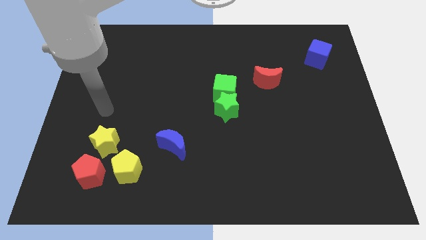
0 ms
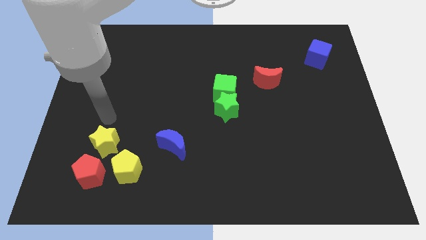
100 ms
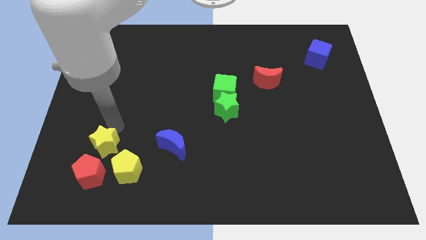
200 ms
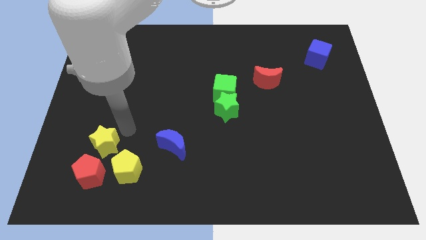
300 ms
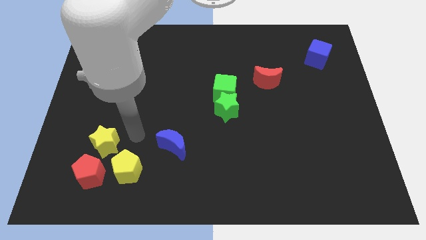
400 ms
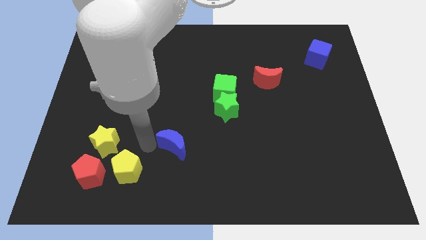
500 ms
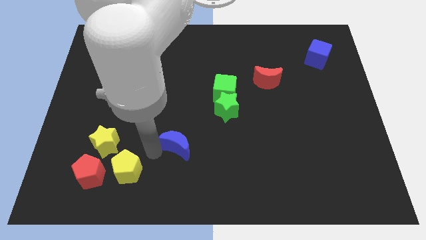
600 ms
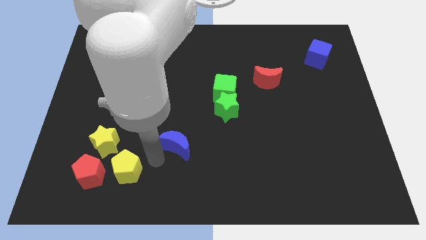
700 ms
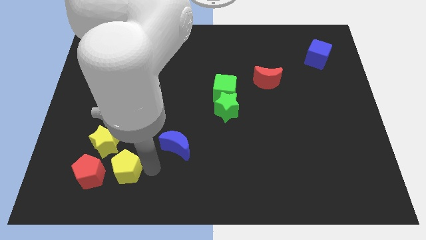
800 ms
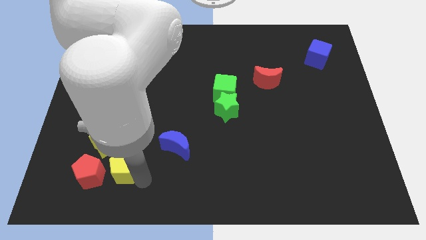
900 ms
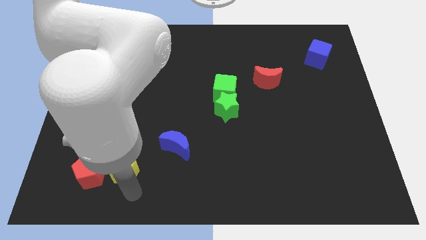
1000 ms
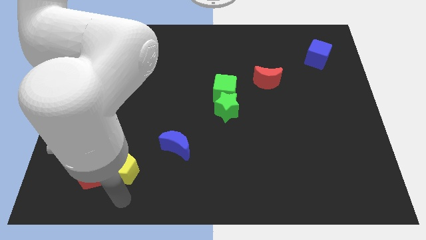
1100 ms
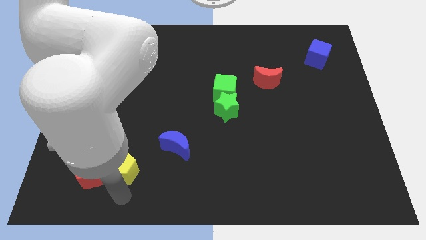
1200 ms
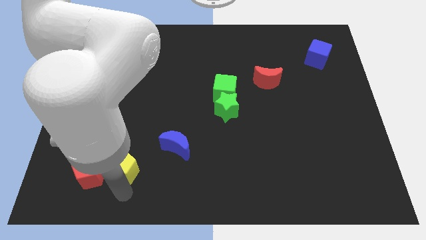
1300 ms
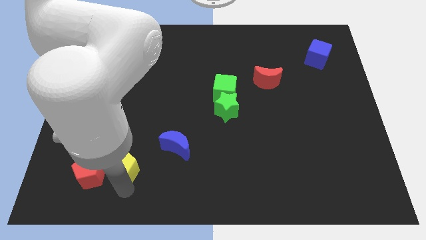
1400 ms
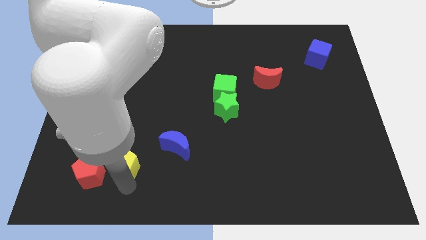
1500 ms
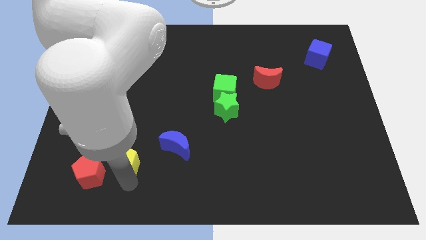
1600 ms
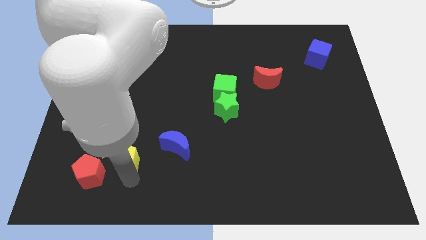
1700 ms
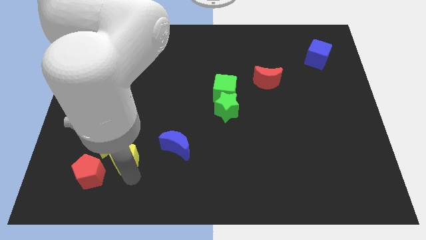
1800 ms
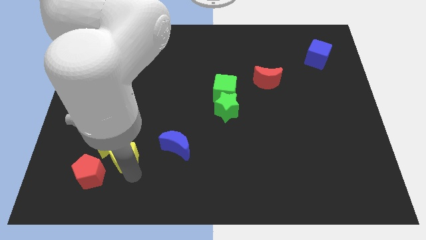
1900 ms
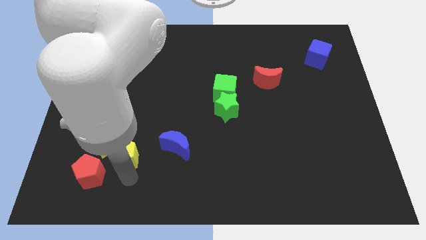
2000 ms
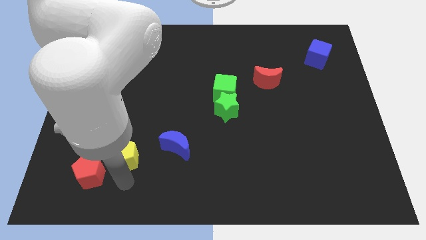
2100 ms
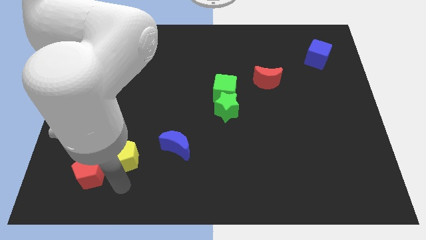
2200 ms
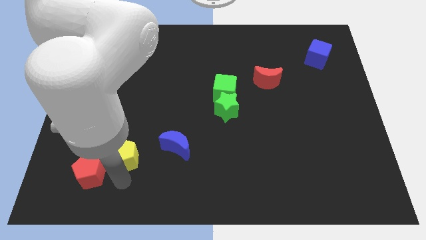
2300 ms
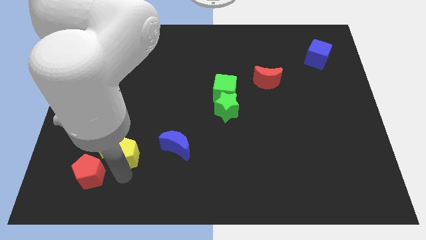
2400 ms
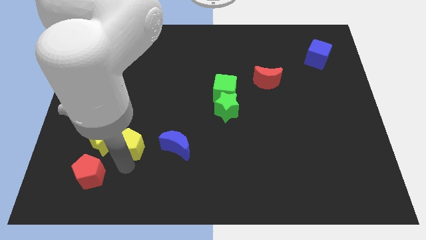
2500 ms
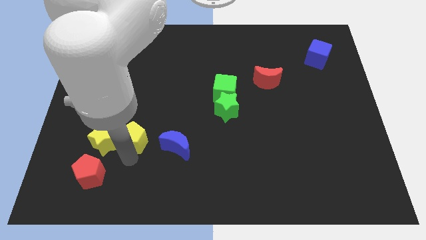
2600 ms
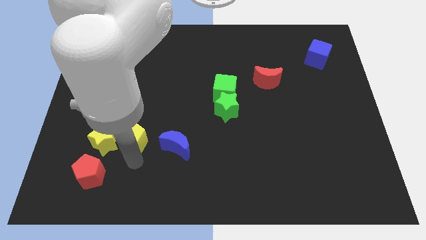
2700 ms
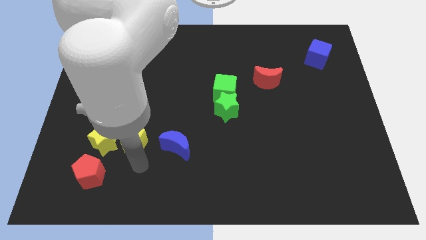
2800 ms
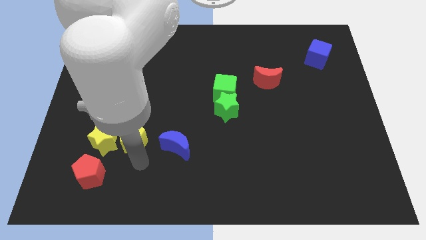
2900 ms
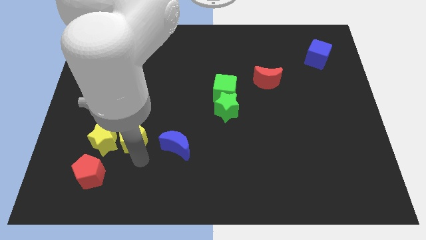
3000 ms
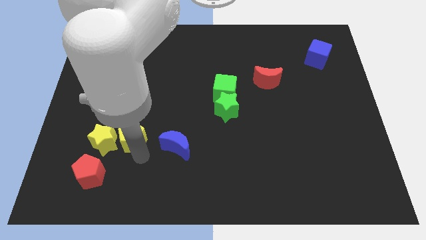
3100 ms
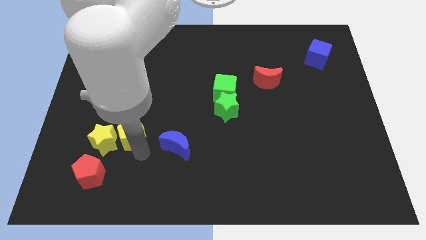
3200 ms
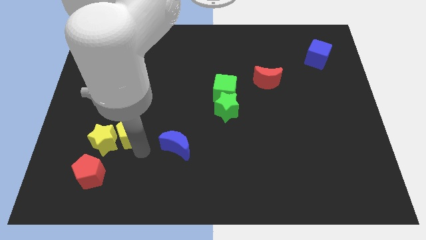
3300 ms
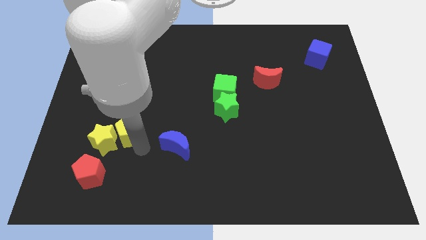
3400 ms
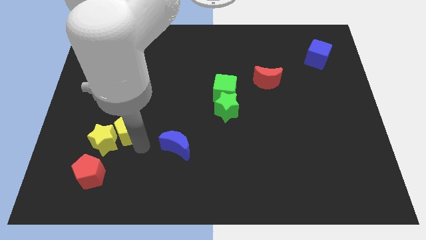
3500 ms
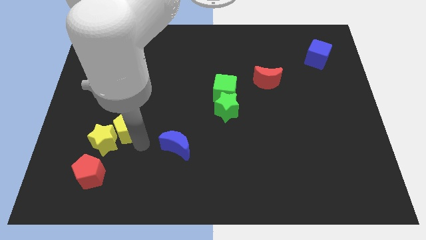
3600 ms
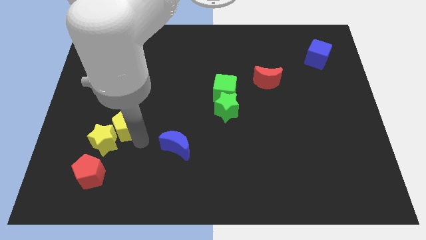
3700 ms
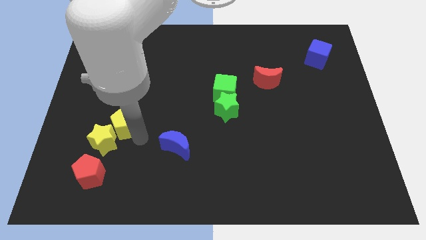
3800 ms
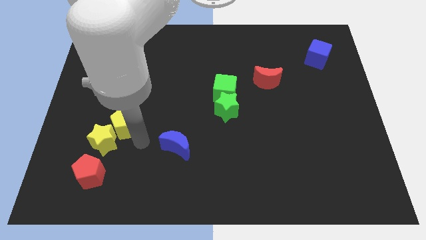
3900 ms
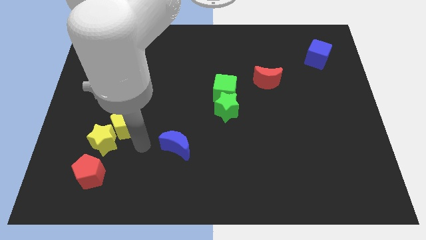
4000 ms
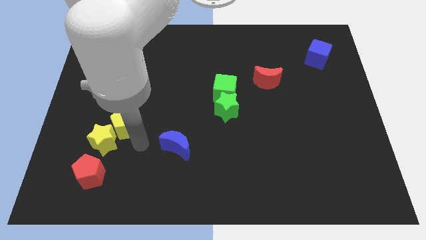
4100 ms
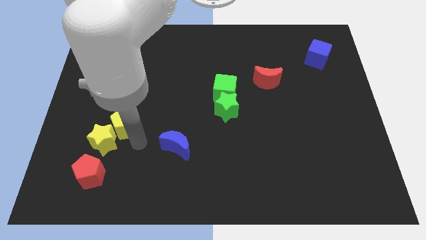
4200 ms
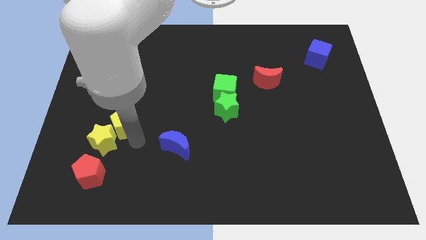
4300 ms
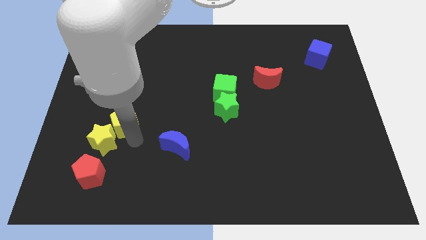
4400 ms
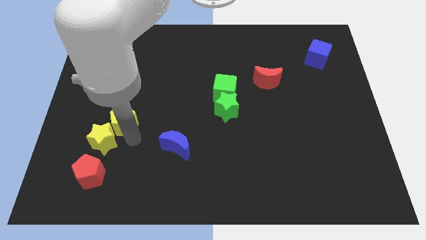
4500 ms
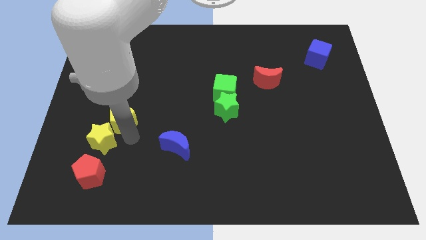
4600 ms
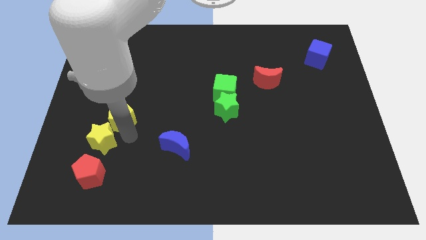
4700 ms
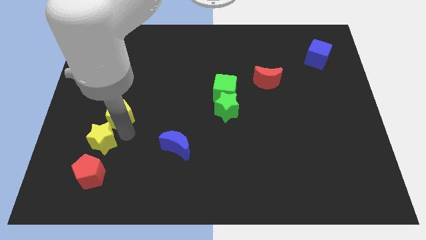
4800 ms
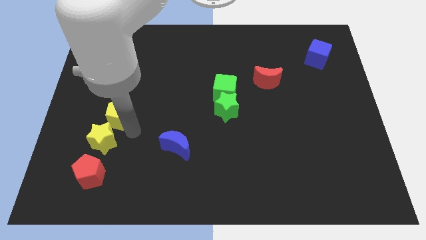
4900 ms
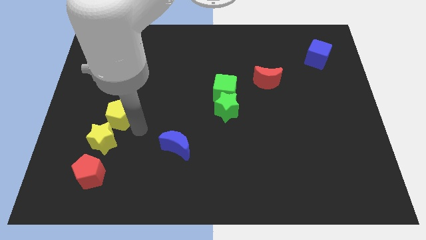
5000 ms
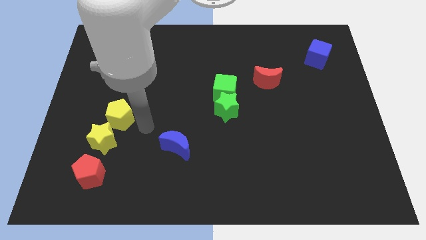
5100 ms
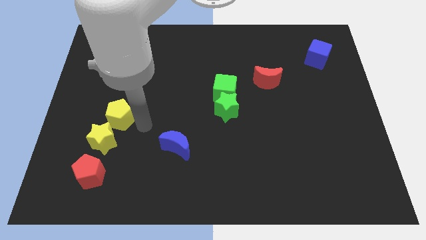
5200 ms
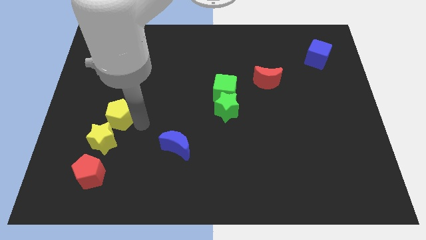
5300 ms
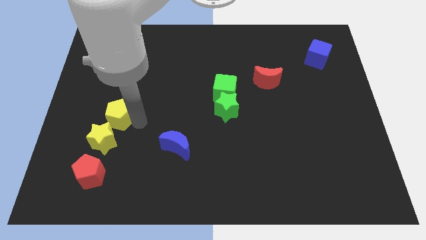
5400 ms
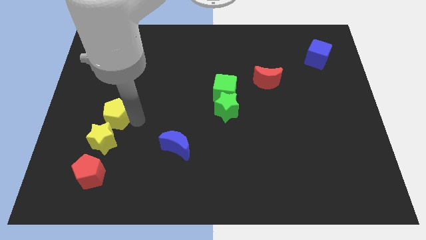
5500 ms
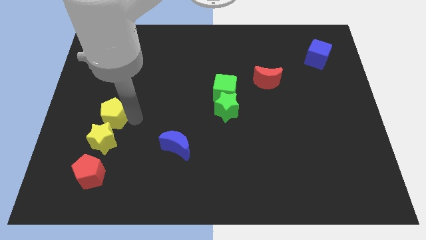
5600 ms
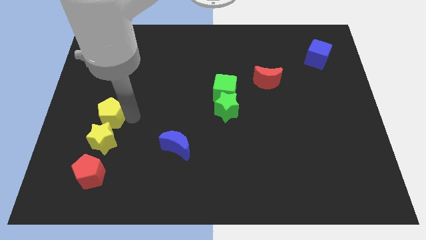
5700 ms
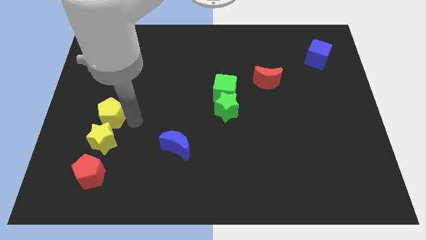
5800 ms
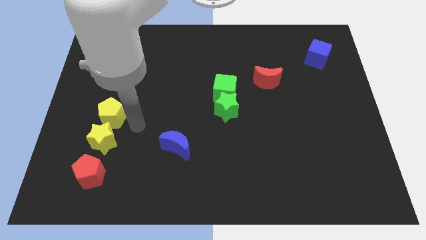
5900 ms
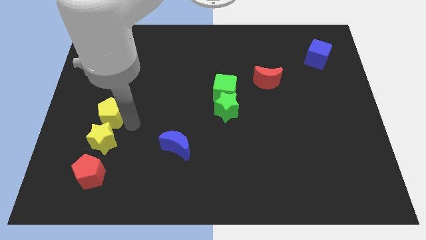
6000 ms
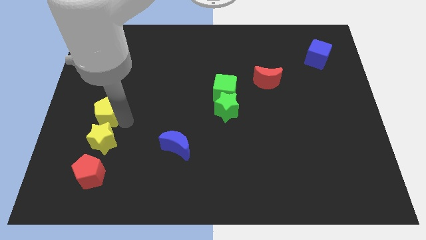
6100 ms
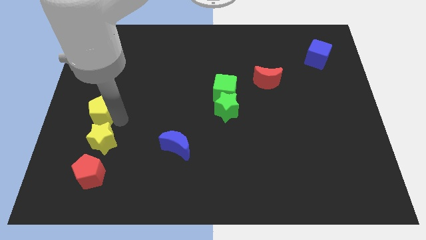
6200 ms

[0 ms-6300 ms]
move the yellow pentagon to the left side of the board
